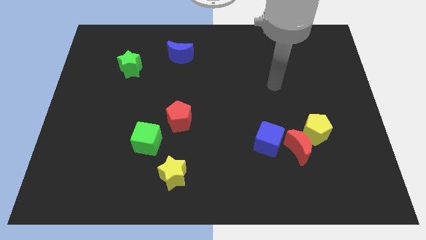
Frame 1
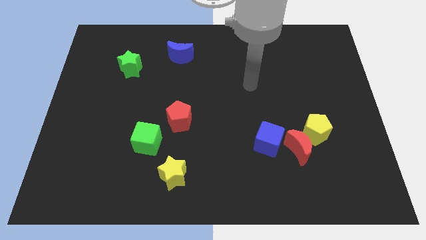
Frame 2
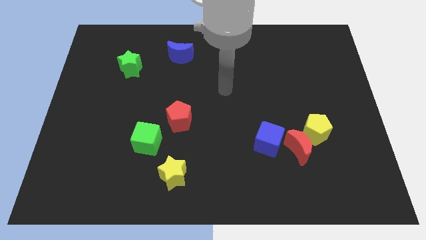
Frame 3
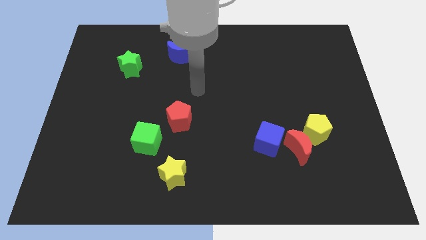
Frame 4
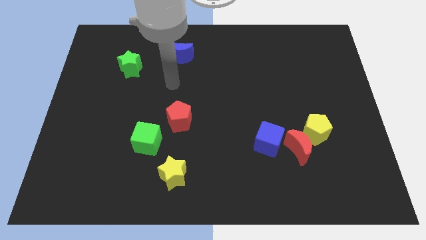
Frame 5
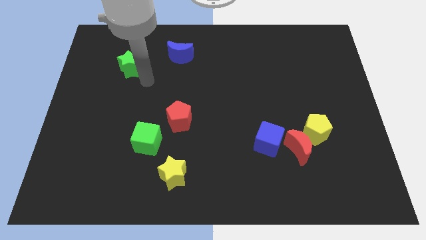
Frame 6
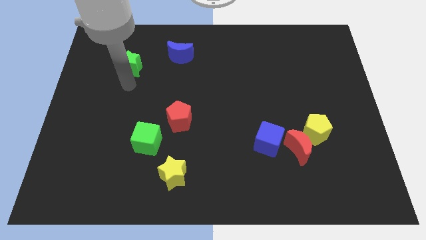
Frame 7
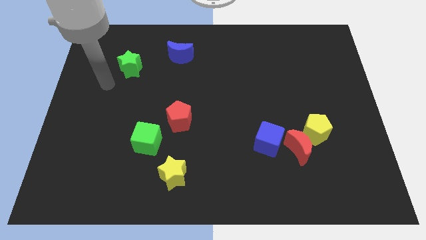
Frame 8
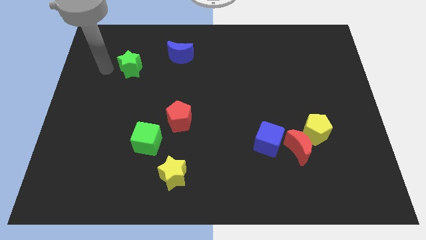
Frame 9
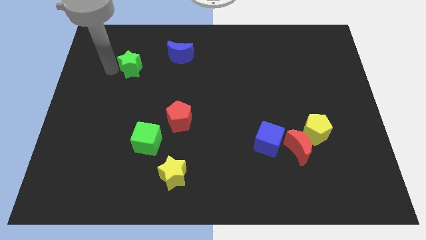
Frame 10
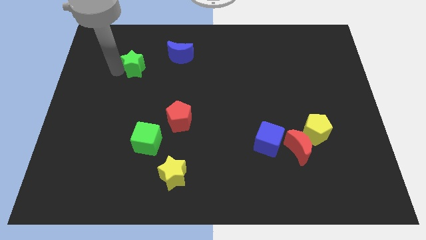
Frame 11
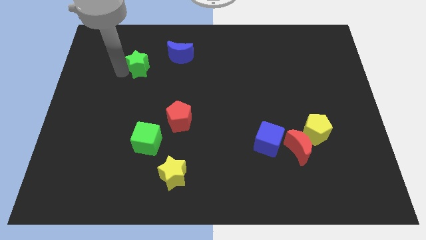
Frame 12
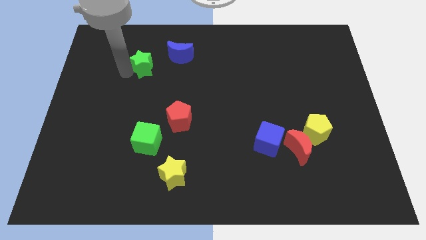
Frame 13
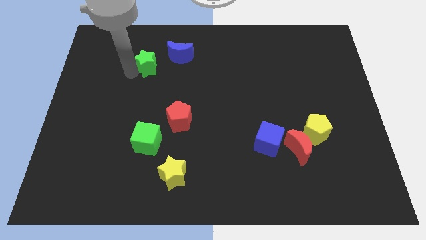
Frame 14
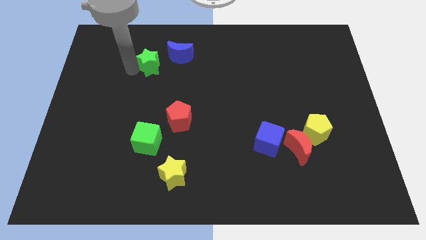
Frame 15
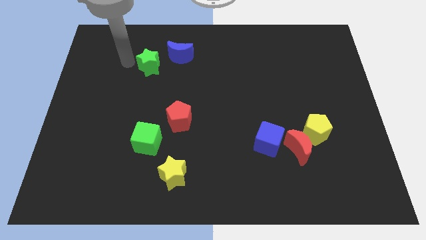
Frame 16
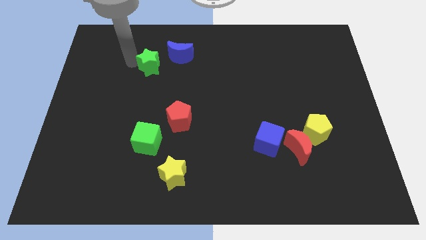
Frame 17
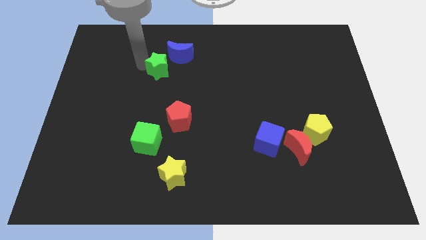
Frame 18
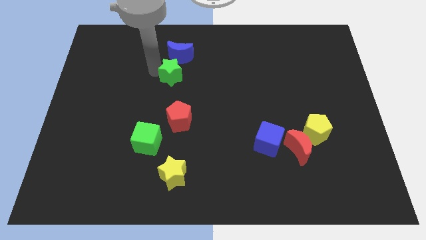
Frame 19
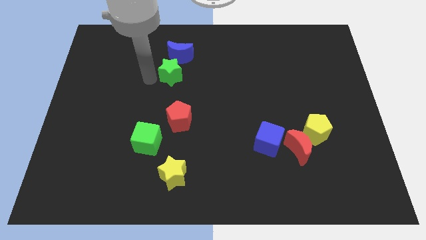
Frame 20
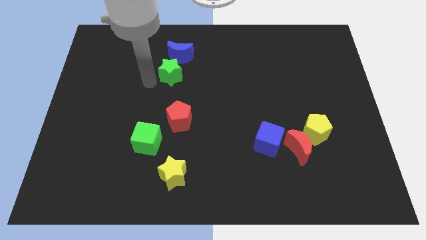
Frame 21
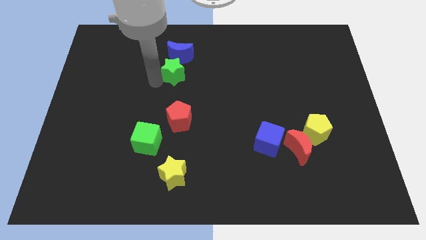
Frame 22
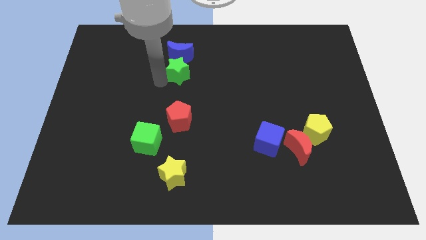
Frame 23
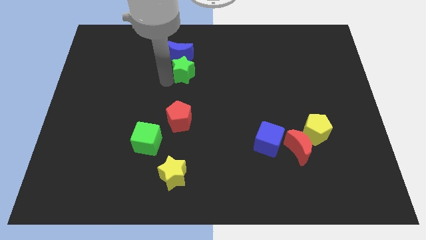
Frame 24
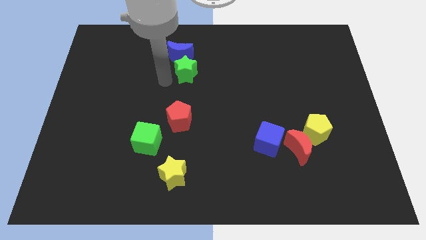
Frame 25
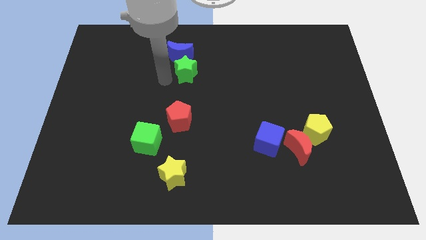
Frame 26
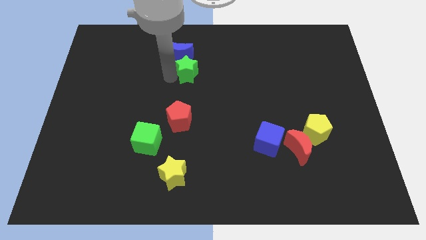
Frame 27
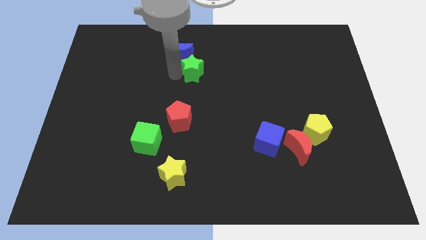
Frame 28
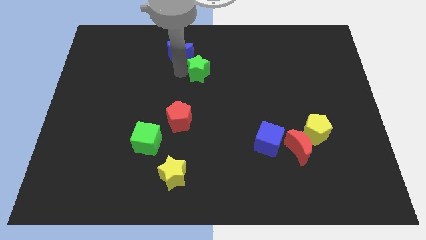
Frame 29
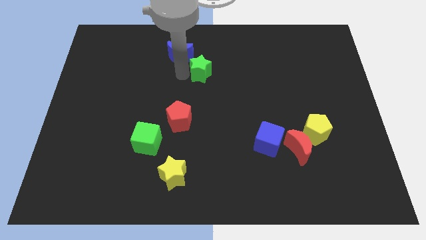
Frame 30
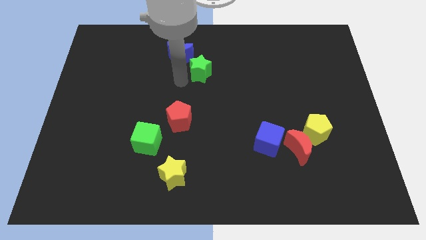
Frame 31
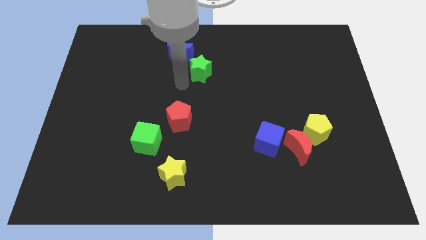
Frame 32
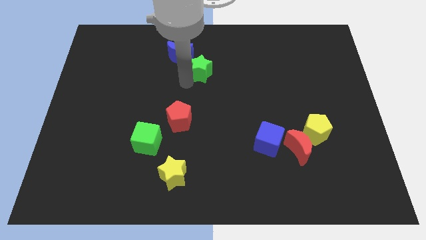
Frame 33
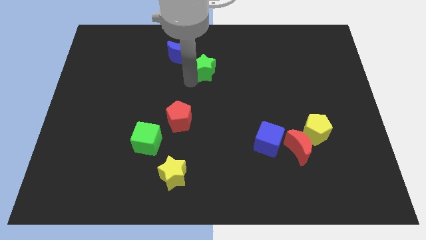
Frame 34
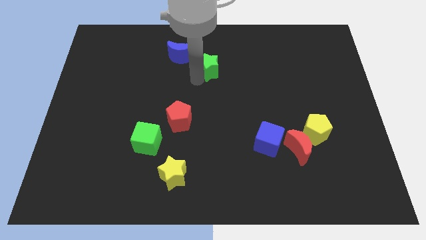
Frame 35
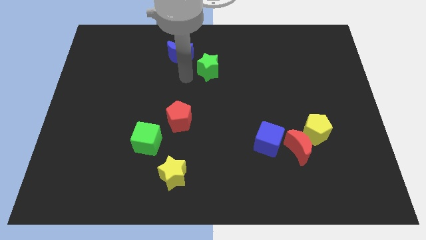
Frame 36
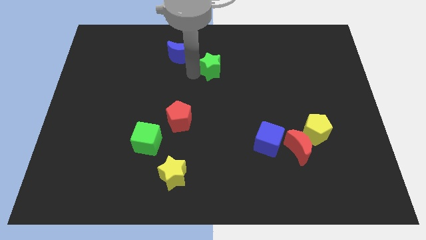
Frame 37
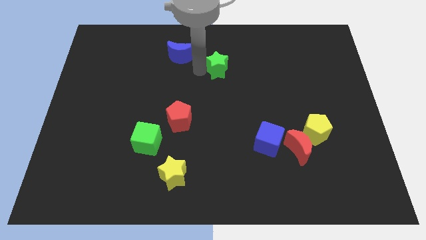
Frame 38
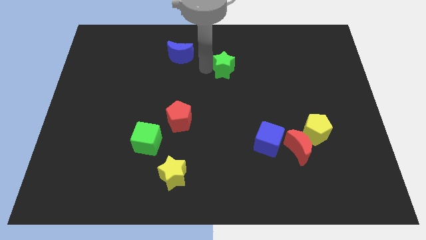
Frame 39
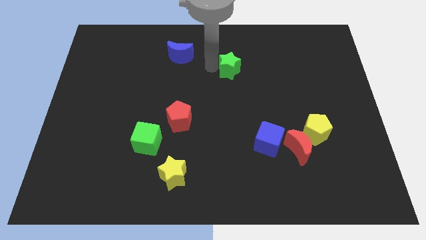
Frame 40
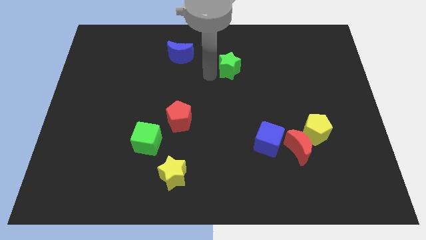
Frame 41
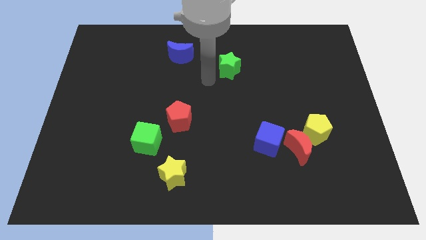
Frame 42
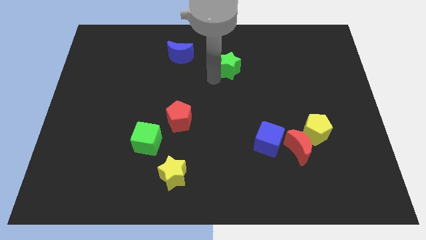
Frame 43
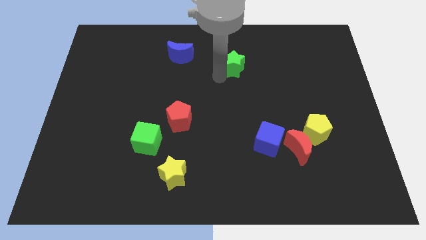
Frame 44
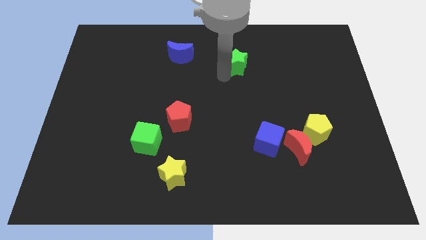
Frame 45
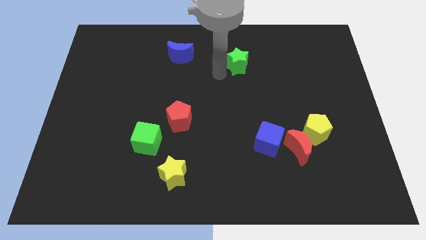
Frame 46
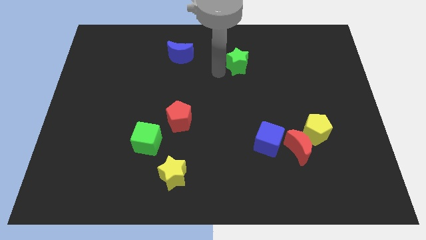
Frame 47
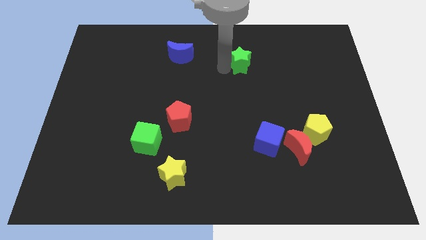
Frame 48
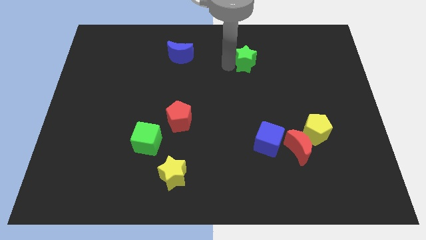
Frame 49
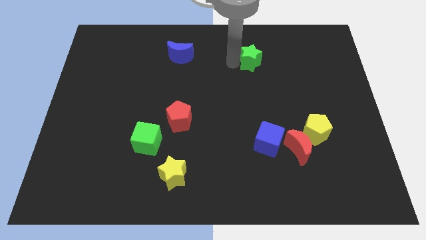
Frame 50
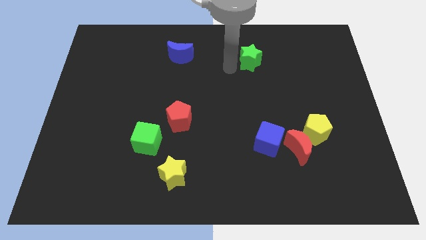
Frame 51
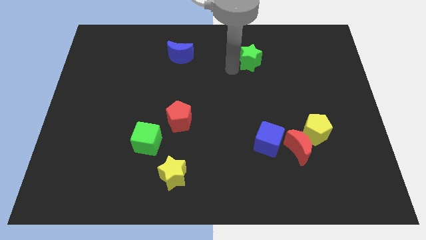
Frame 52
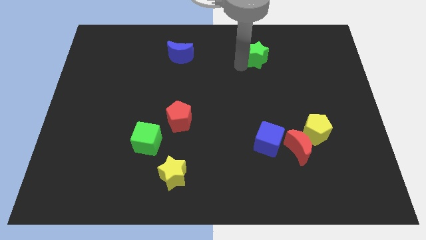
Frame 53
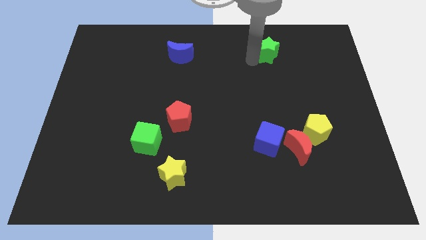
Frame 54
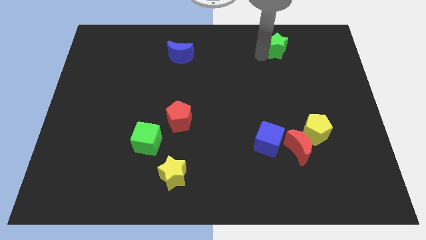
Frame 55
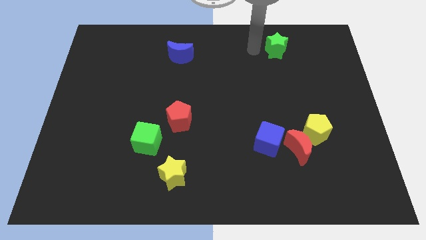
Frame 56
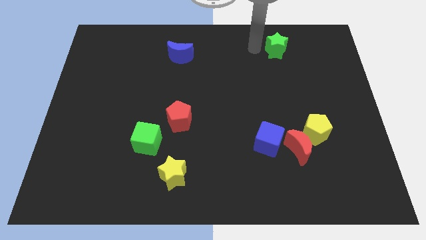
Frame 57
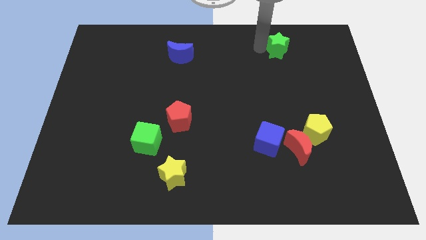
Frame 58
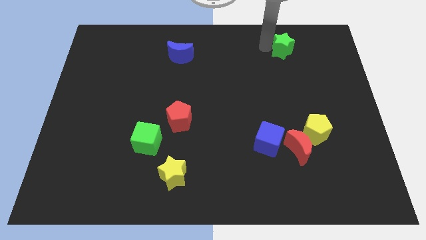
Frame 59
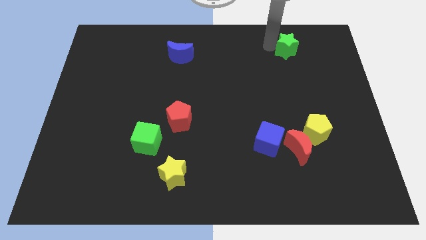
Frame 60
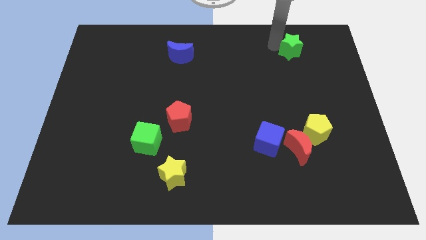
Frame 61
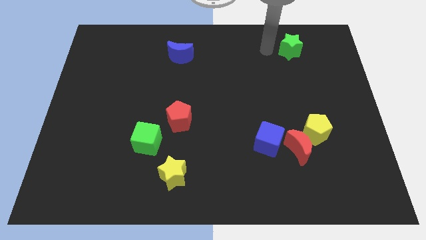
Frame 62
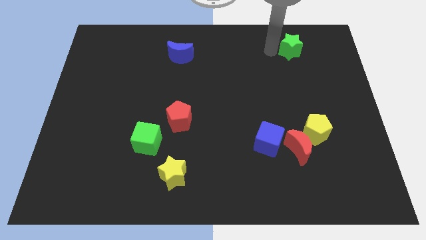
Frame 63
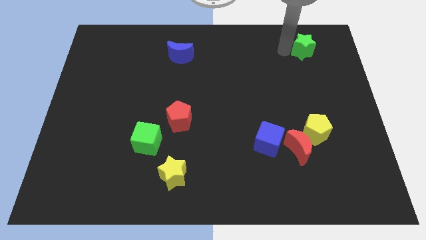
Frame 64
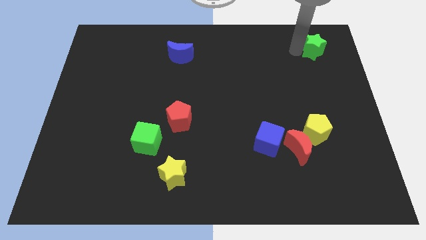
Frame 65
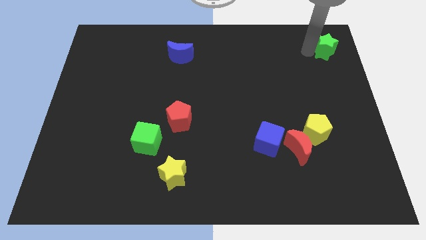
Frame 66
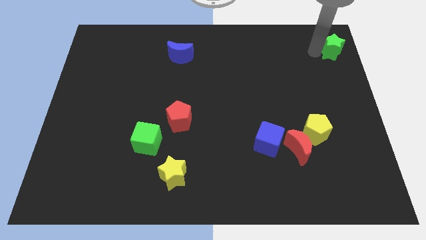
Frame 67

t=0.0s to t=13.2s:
put the green star to the upper right corner

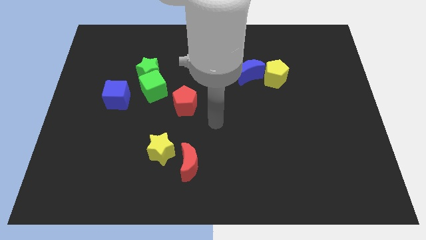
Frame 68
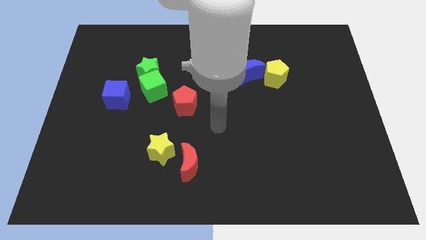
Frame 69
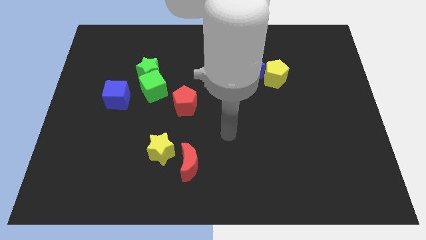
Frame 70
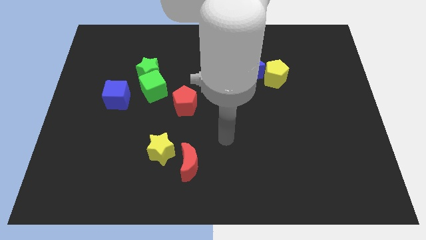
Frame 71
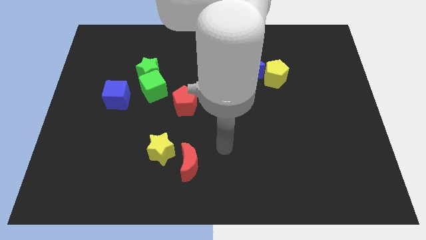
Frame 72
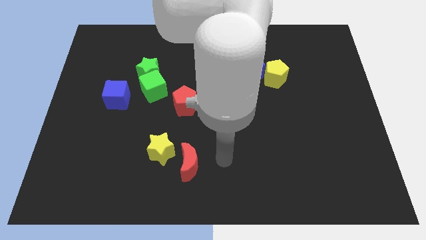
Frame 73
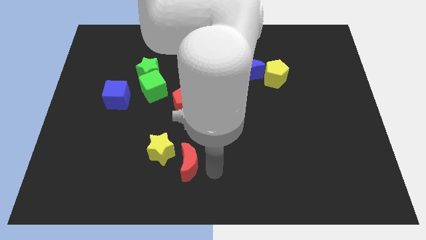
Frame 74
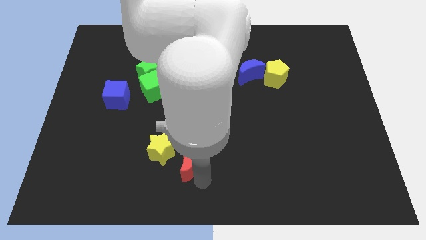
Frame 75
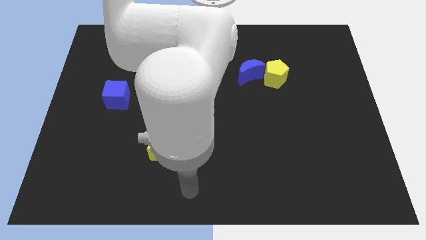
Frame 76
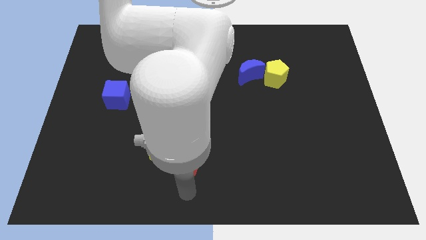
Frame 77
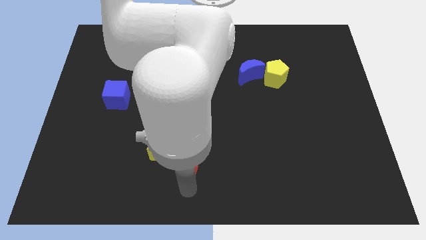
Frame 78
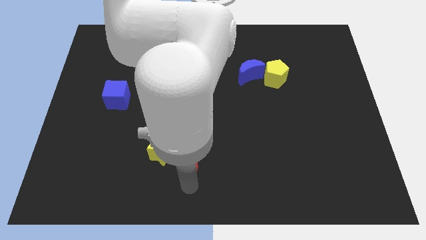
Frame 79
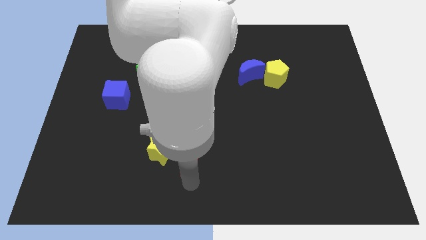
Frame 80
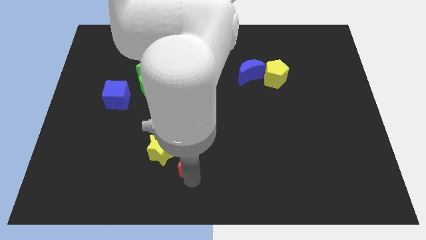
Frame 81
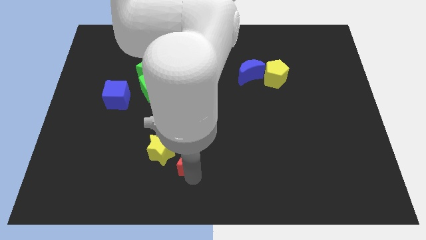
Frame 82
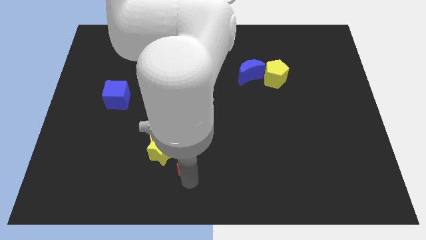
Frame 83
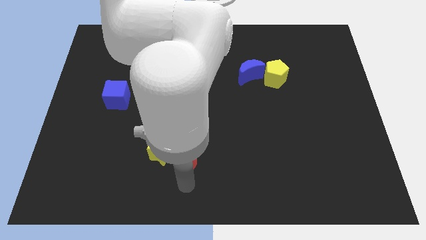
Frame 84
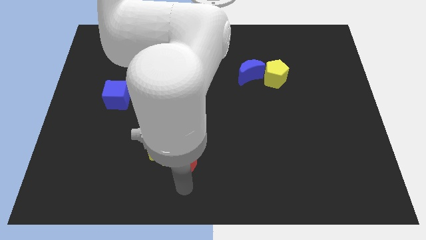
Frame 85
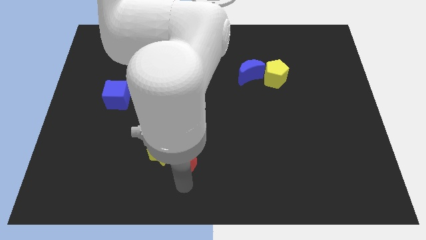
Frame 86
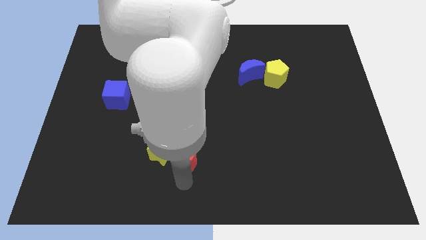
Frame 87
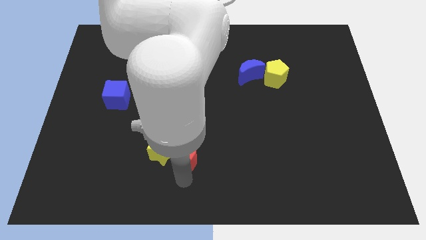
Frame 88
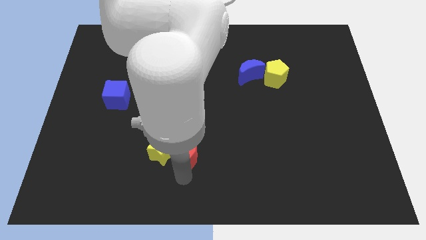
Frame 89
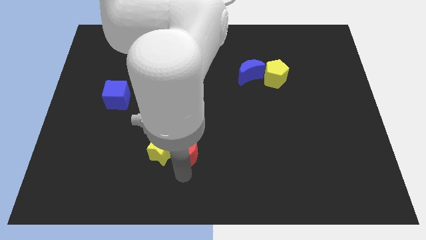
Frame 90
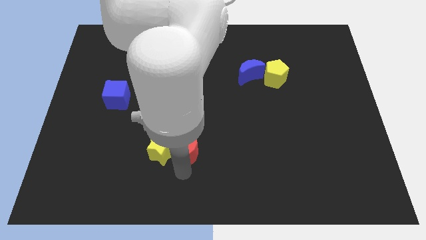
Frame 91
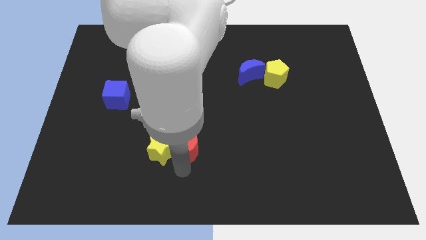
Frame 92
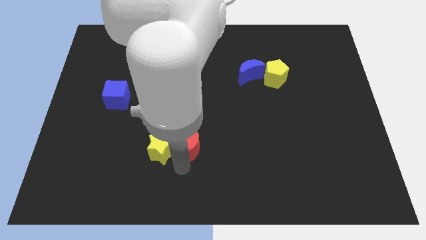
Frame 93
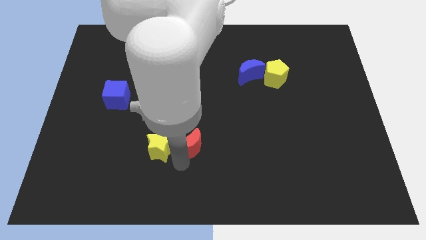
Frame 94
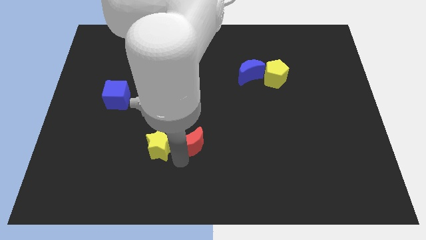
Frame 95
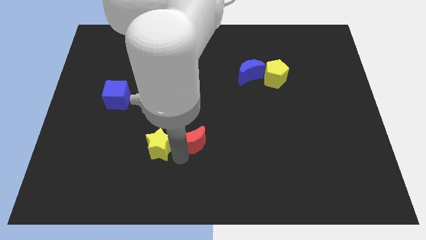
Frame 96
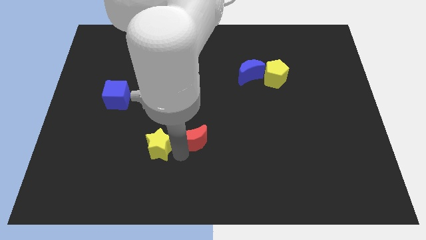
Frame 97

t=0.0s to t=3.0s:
put the red moon to the center of the board
